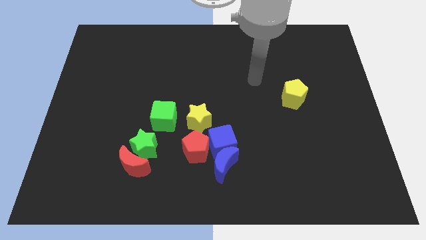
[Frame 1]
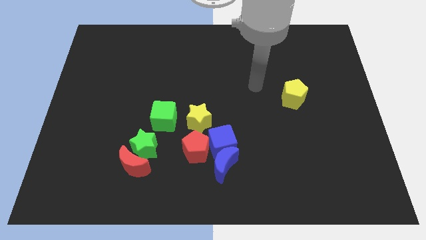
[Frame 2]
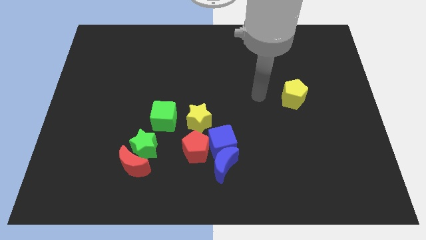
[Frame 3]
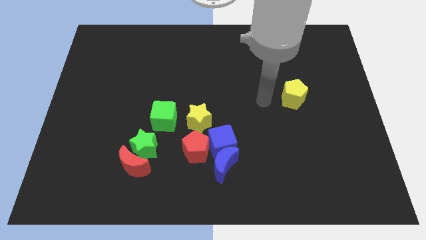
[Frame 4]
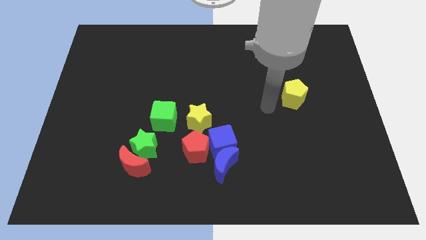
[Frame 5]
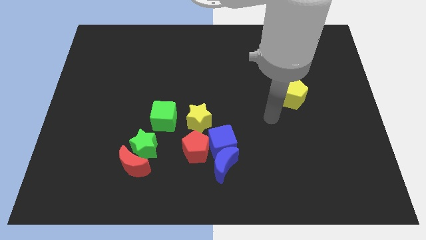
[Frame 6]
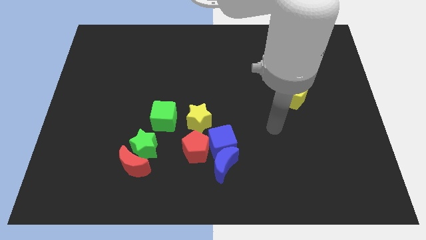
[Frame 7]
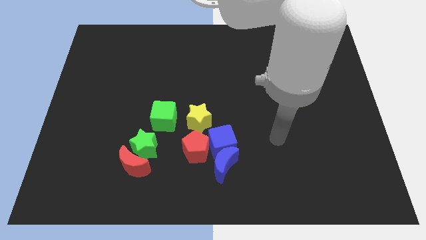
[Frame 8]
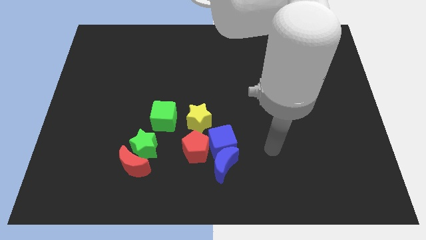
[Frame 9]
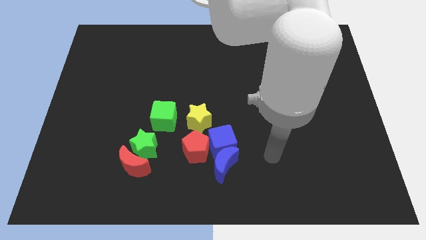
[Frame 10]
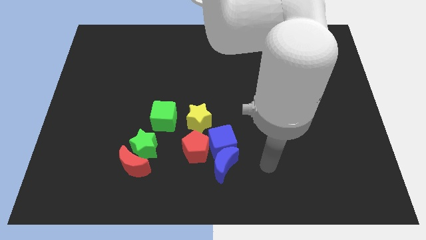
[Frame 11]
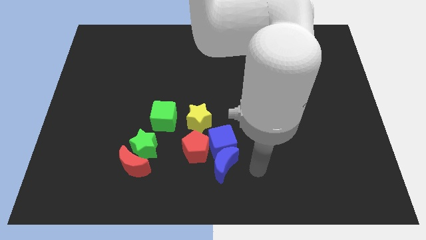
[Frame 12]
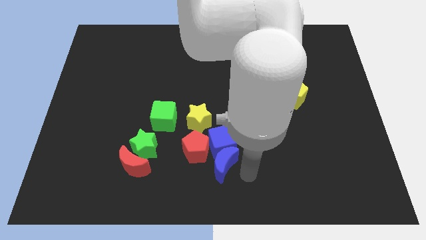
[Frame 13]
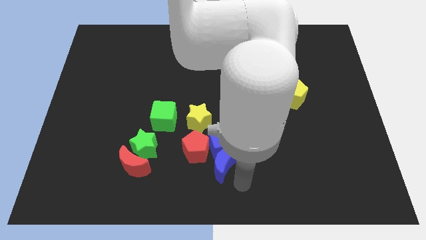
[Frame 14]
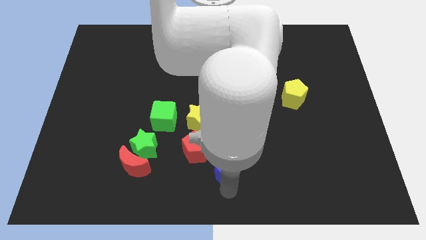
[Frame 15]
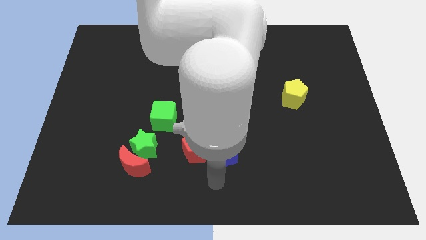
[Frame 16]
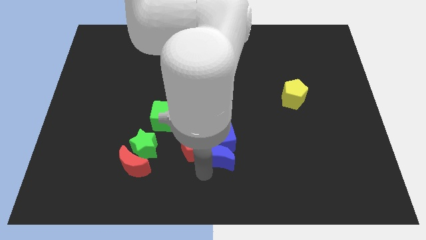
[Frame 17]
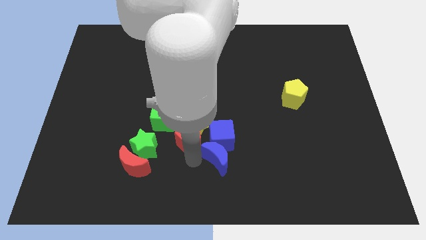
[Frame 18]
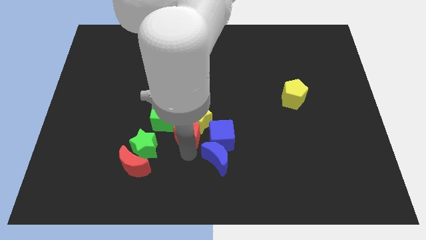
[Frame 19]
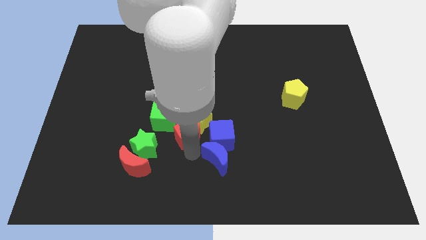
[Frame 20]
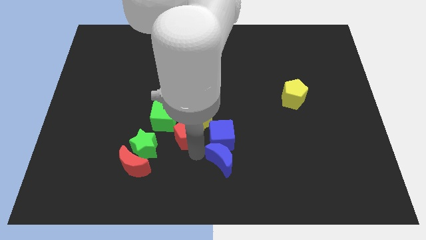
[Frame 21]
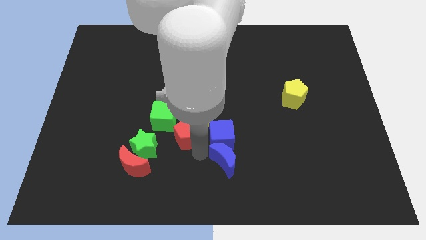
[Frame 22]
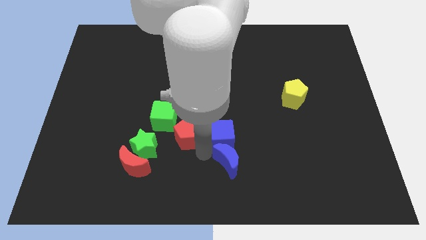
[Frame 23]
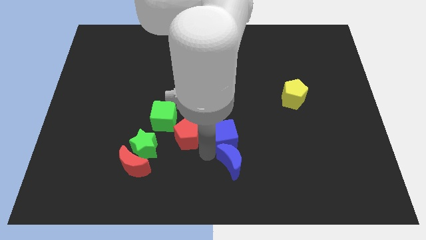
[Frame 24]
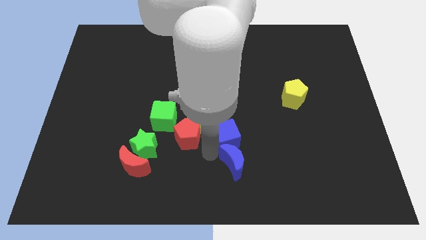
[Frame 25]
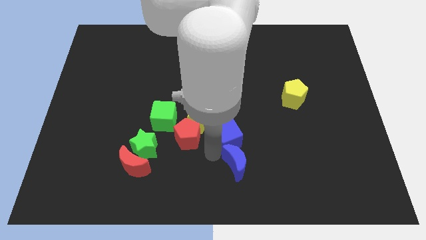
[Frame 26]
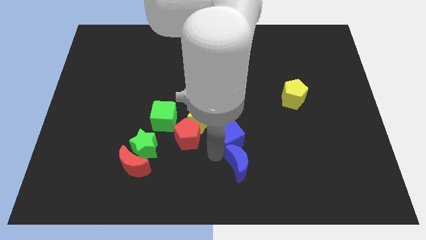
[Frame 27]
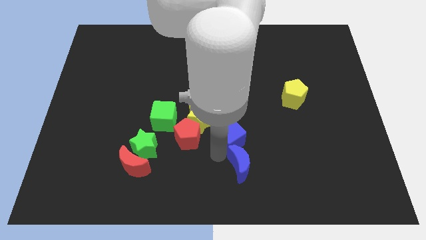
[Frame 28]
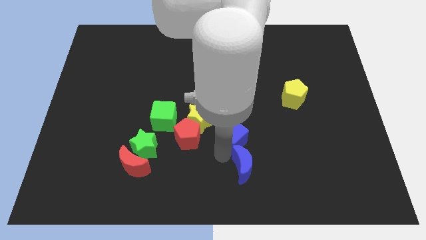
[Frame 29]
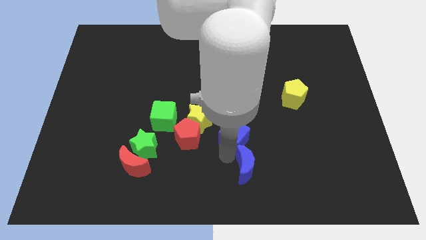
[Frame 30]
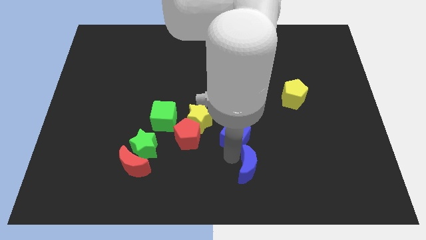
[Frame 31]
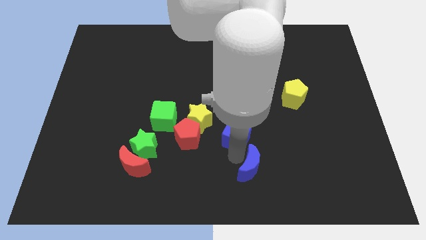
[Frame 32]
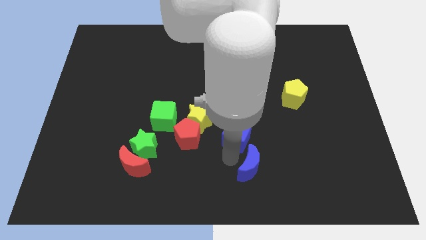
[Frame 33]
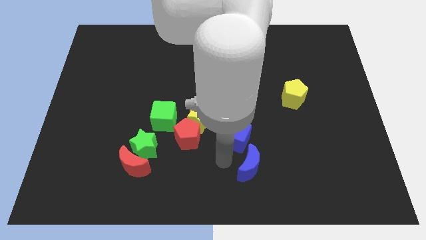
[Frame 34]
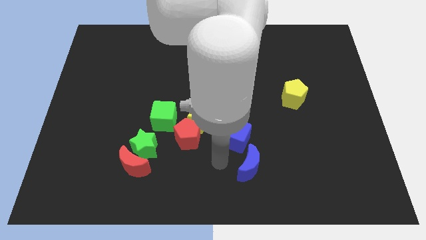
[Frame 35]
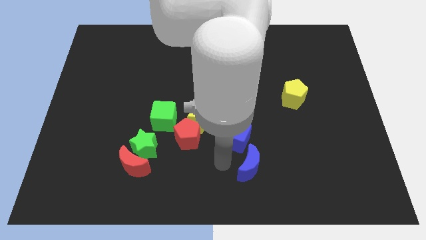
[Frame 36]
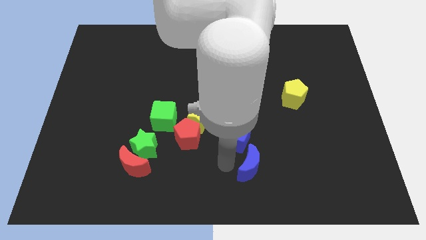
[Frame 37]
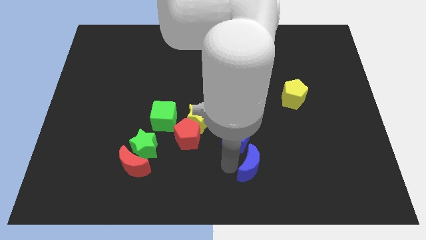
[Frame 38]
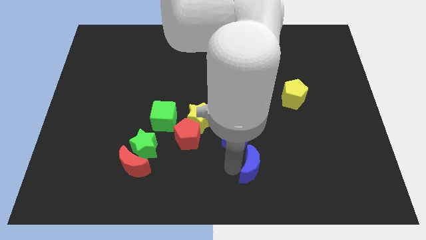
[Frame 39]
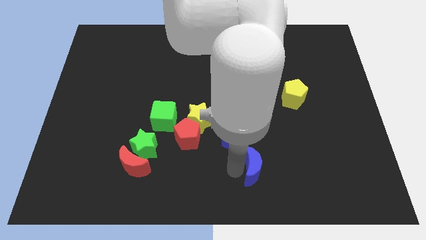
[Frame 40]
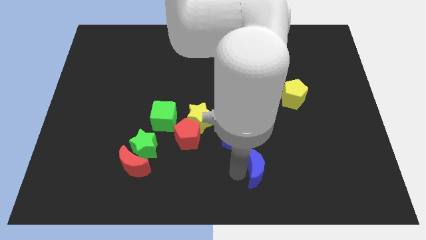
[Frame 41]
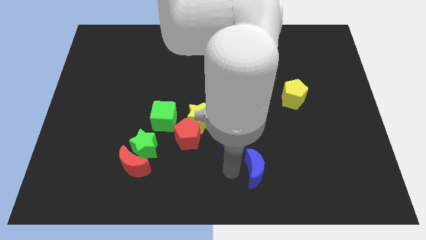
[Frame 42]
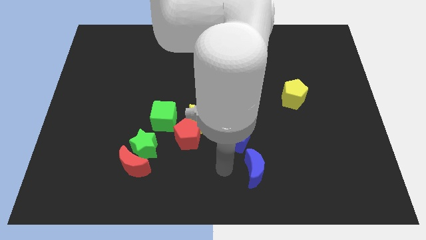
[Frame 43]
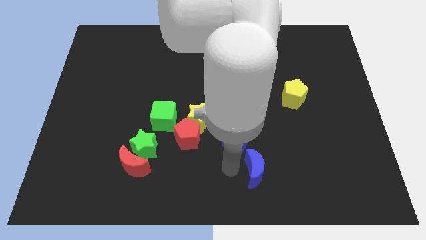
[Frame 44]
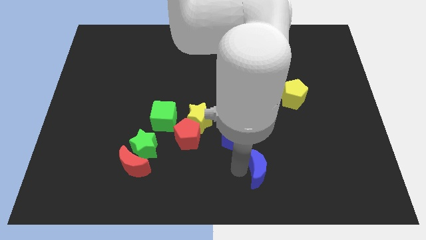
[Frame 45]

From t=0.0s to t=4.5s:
move the blue moon to the right a bit

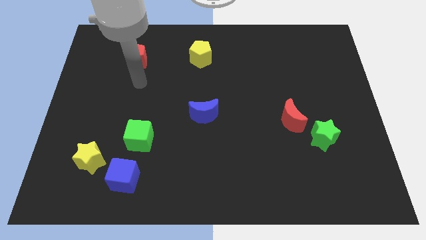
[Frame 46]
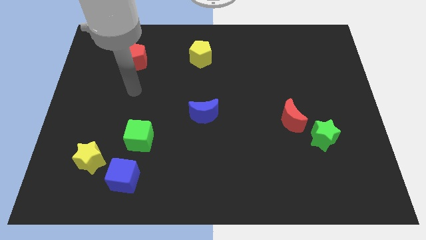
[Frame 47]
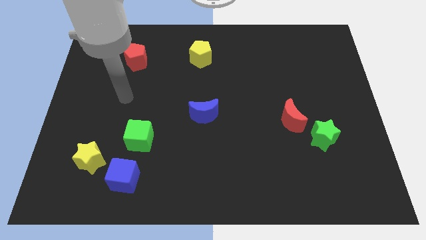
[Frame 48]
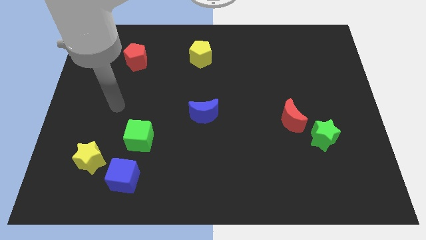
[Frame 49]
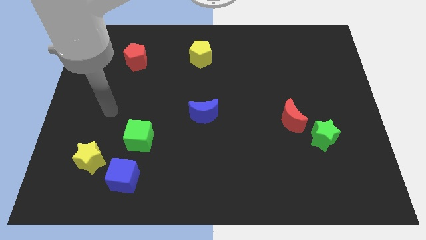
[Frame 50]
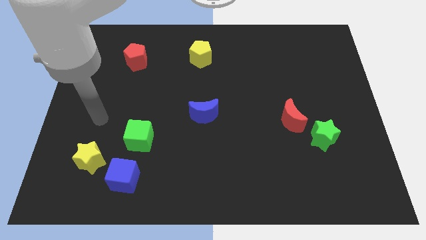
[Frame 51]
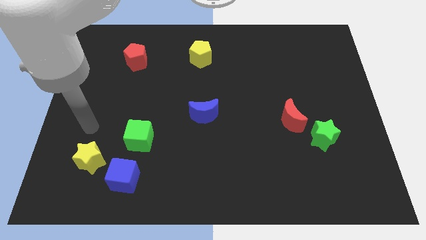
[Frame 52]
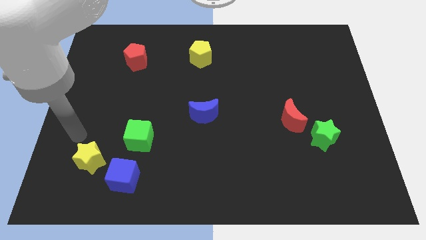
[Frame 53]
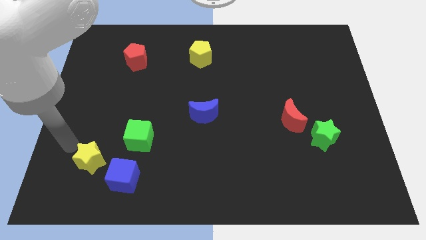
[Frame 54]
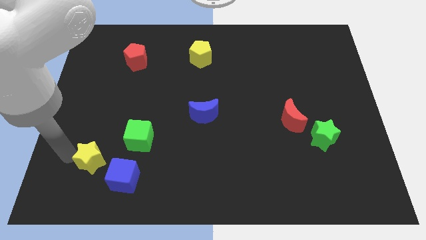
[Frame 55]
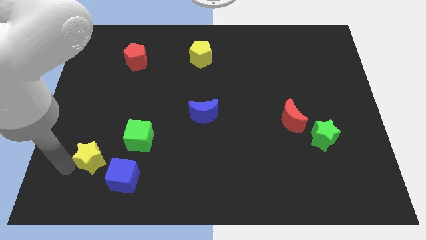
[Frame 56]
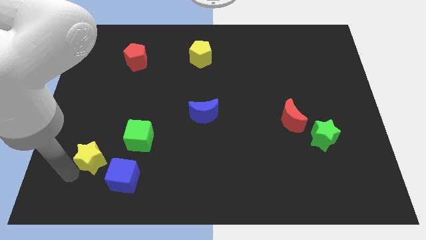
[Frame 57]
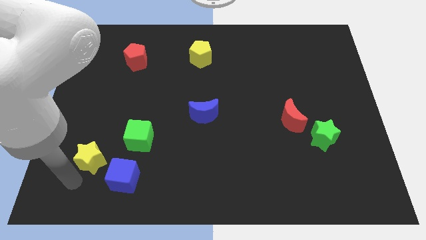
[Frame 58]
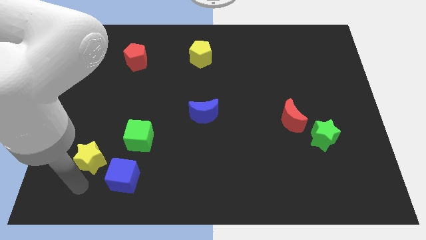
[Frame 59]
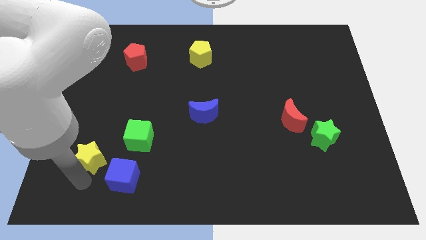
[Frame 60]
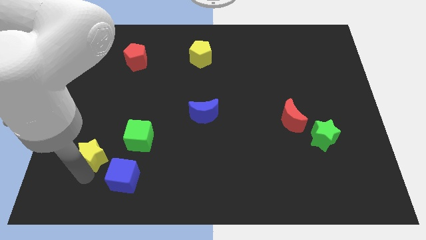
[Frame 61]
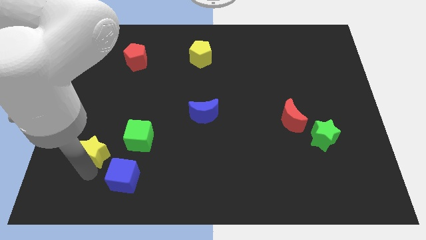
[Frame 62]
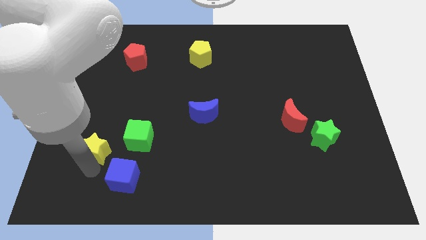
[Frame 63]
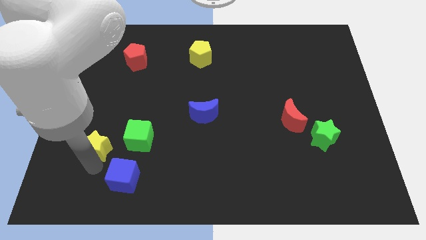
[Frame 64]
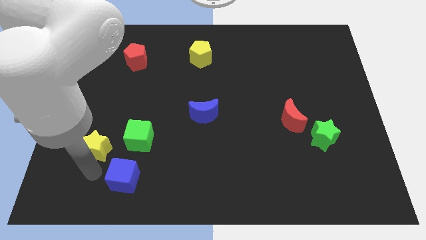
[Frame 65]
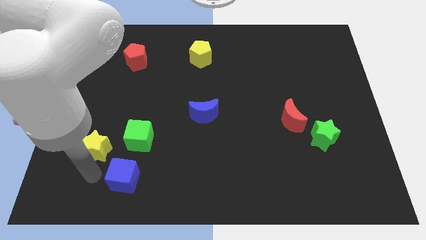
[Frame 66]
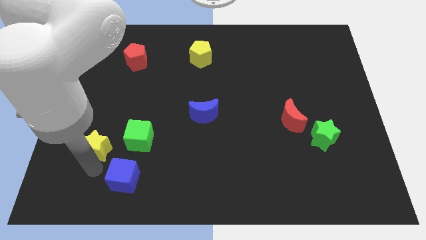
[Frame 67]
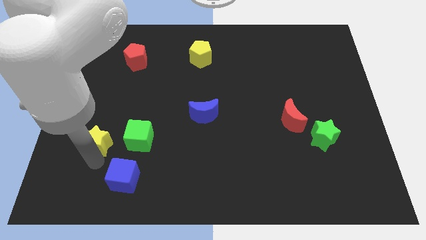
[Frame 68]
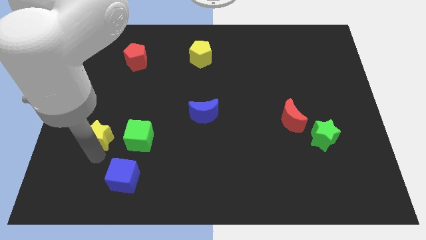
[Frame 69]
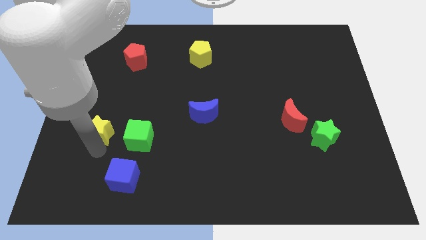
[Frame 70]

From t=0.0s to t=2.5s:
slightly slide the yellow star upwards

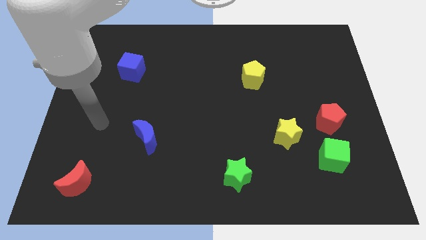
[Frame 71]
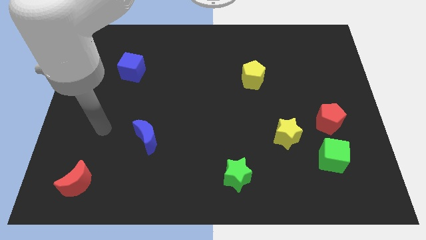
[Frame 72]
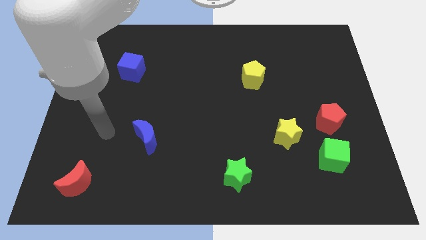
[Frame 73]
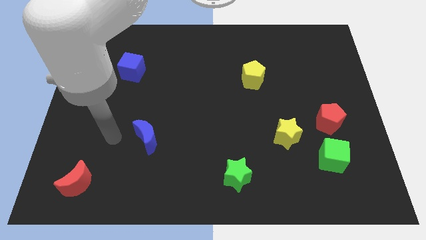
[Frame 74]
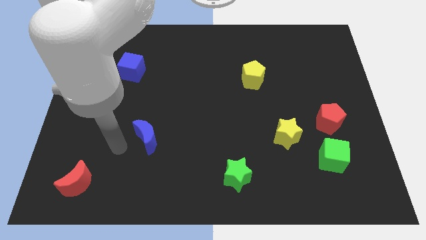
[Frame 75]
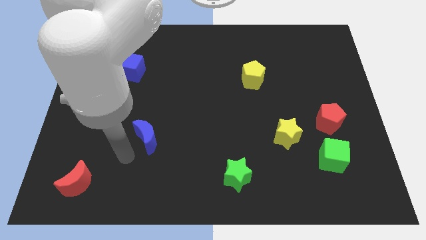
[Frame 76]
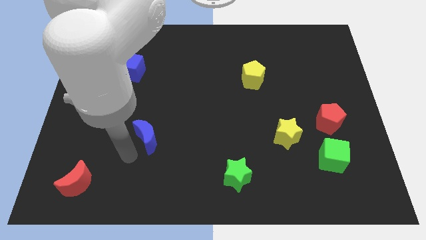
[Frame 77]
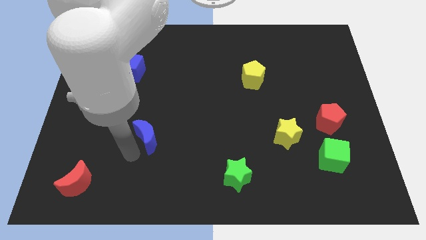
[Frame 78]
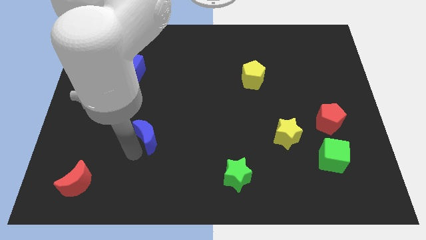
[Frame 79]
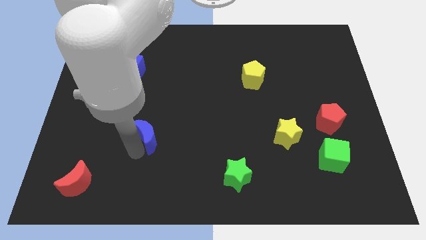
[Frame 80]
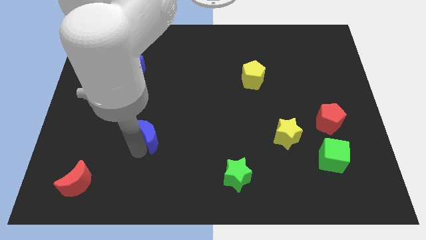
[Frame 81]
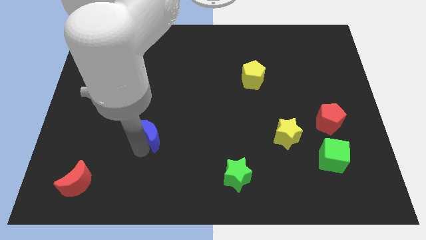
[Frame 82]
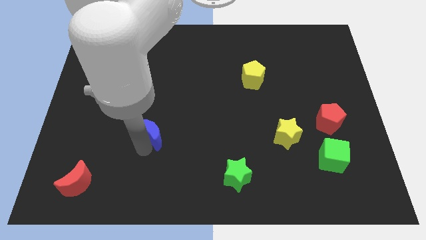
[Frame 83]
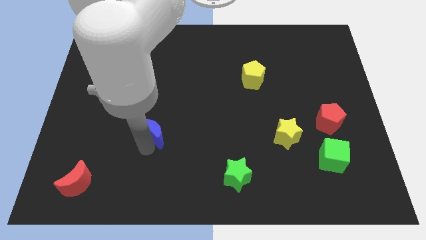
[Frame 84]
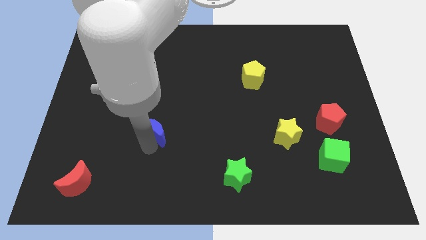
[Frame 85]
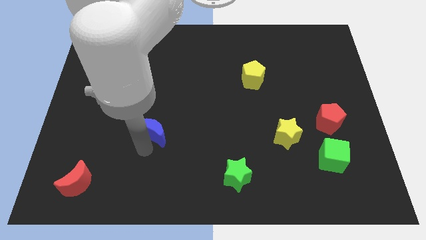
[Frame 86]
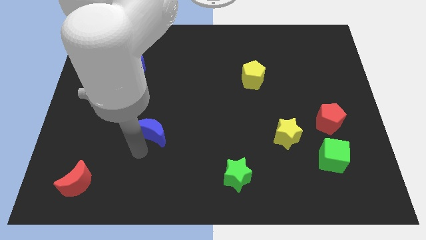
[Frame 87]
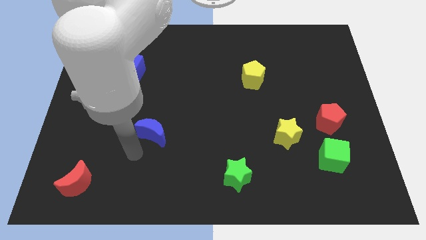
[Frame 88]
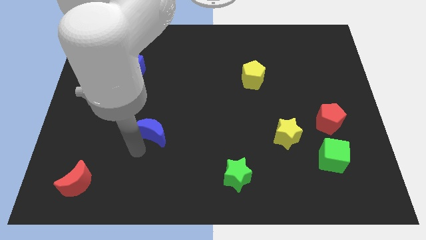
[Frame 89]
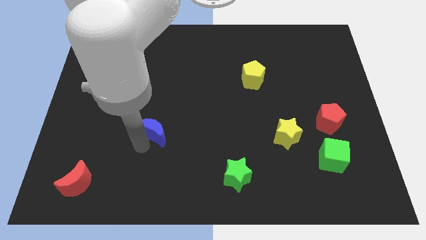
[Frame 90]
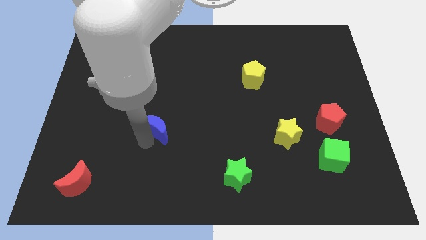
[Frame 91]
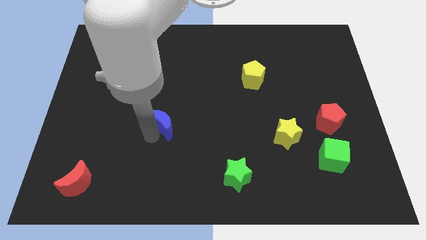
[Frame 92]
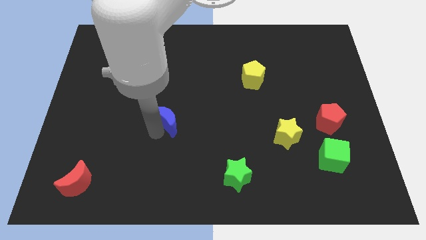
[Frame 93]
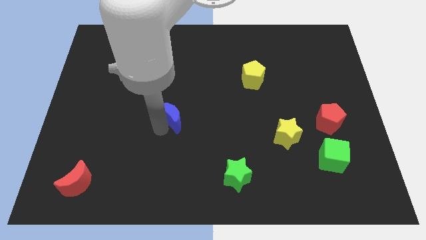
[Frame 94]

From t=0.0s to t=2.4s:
move the blue moon upwards and right slightly
